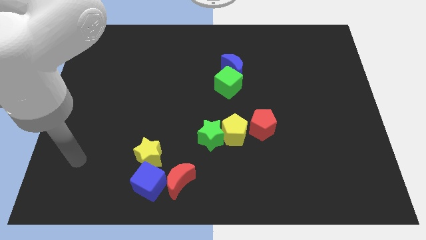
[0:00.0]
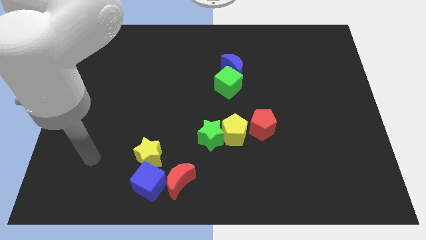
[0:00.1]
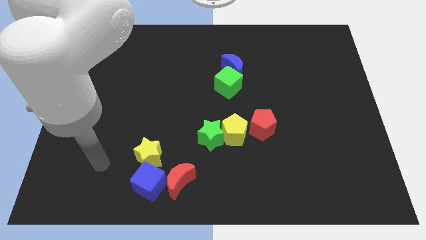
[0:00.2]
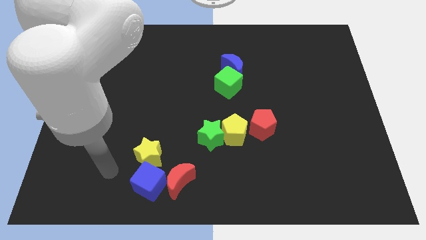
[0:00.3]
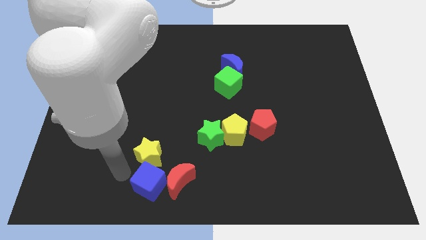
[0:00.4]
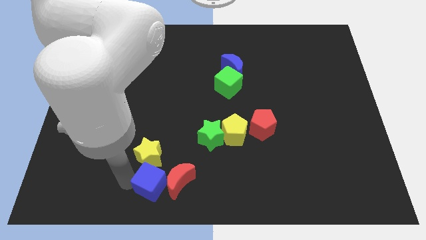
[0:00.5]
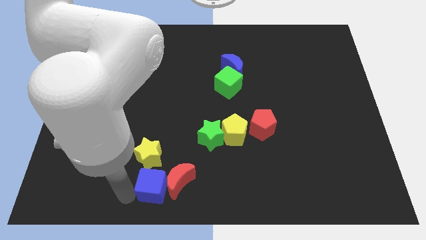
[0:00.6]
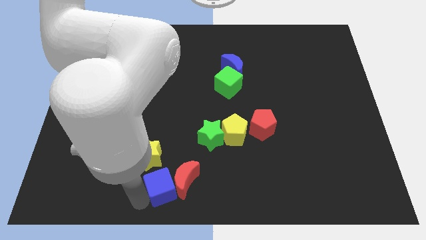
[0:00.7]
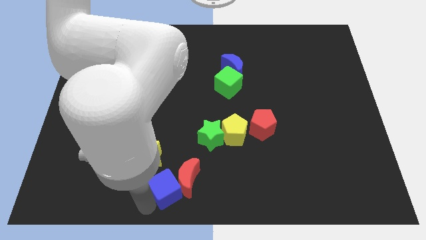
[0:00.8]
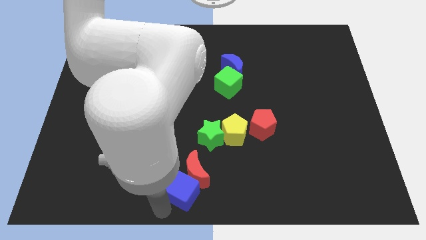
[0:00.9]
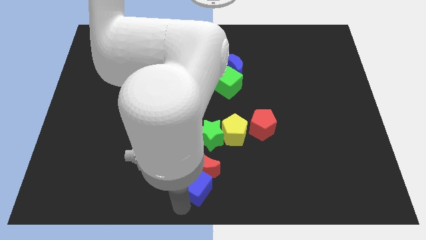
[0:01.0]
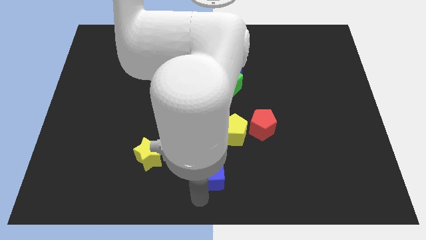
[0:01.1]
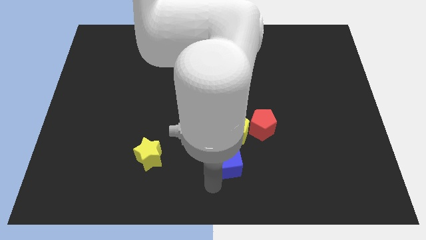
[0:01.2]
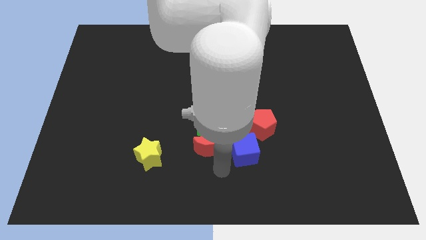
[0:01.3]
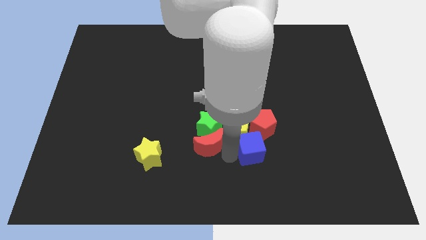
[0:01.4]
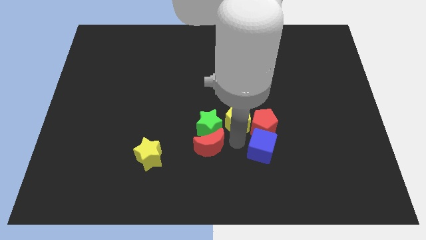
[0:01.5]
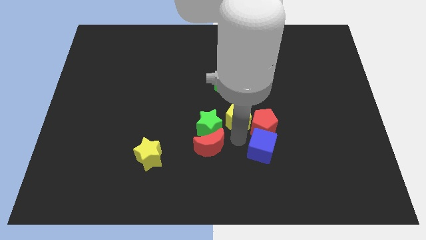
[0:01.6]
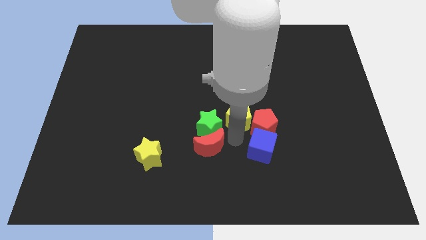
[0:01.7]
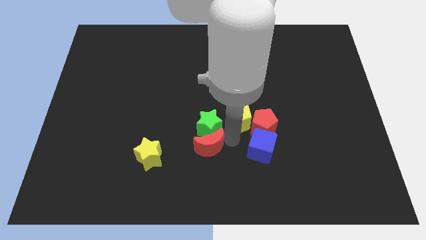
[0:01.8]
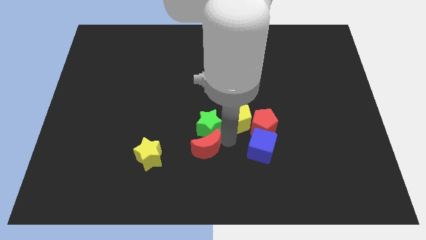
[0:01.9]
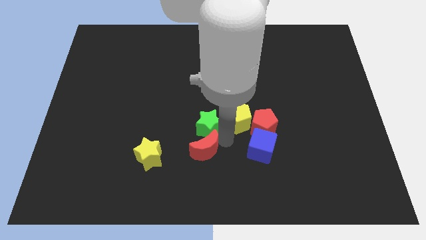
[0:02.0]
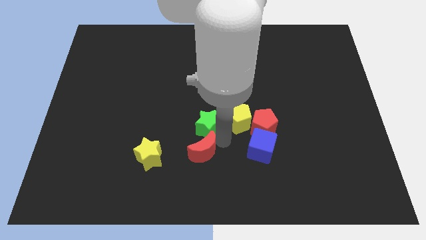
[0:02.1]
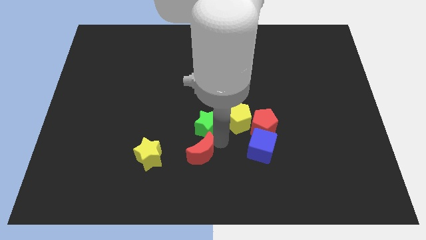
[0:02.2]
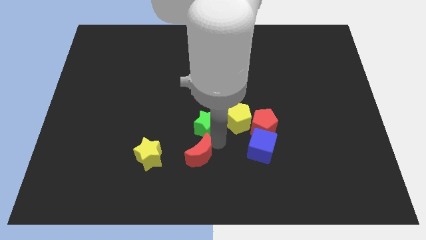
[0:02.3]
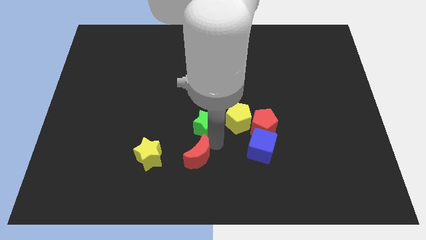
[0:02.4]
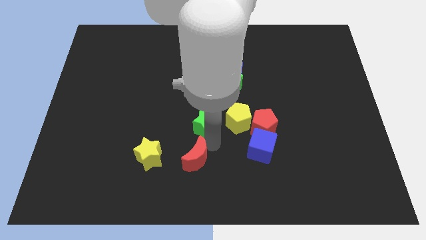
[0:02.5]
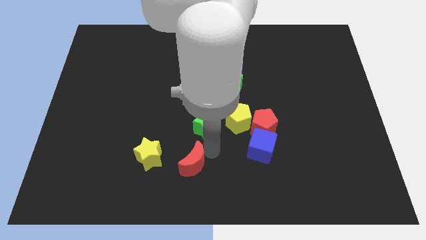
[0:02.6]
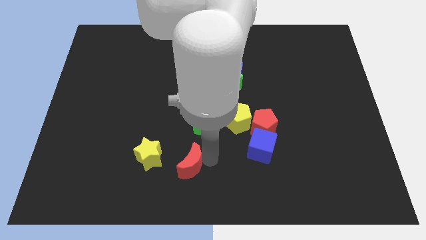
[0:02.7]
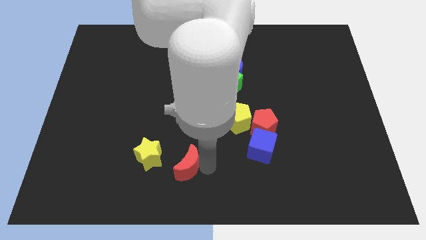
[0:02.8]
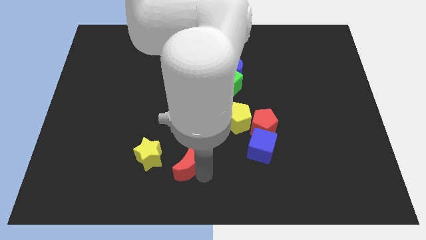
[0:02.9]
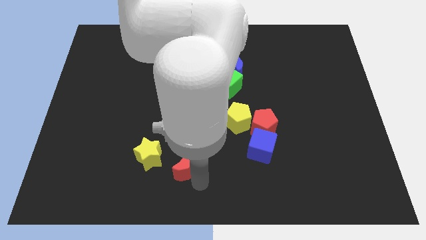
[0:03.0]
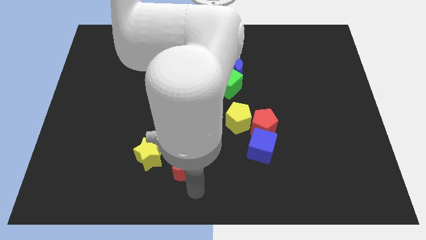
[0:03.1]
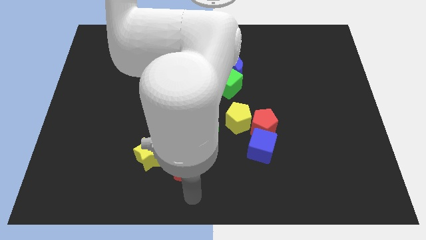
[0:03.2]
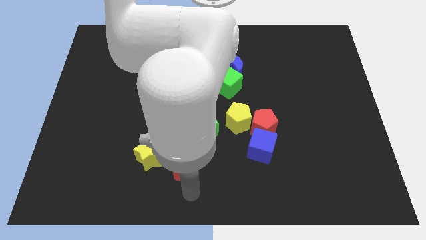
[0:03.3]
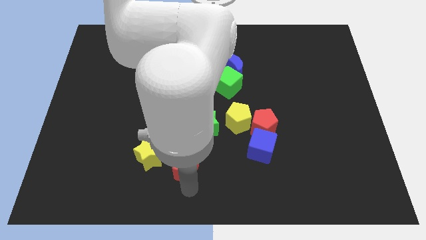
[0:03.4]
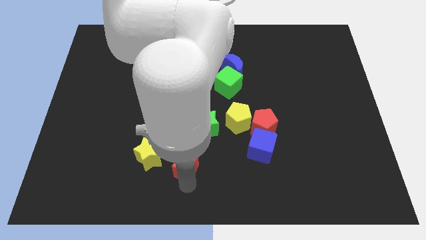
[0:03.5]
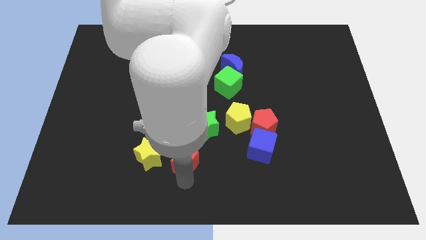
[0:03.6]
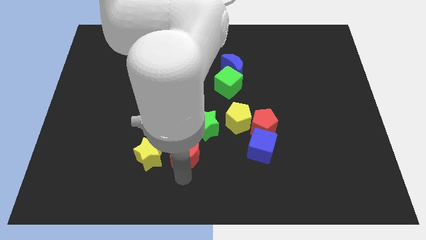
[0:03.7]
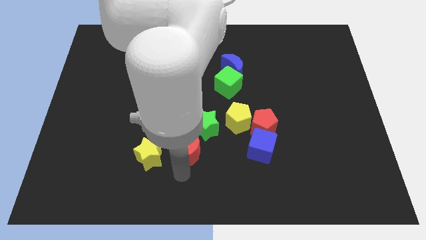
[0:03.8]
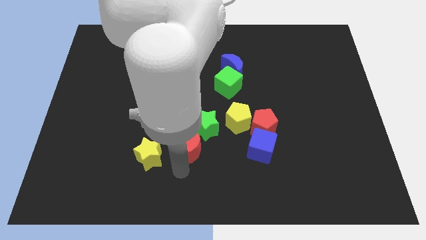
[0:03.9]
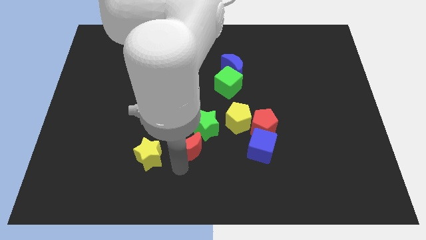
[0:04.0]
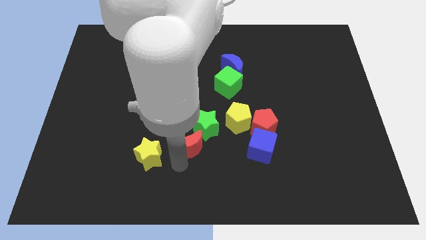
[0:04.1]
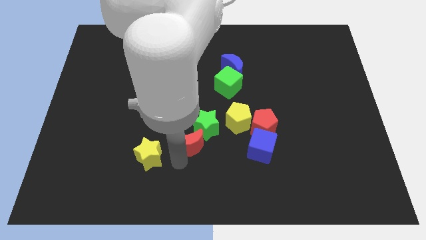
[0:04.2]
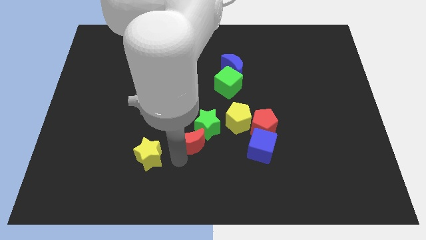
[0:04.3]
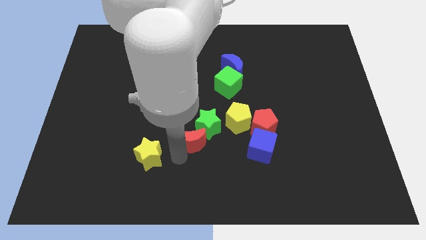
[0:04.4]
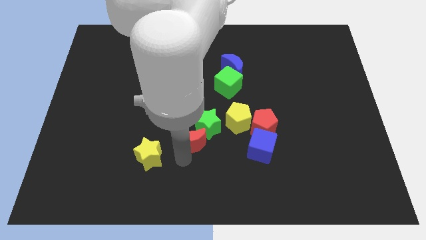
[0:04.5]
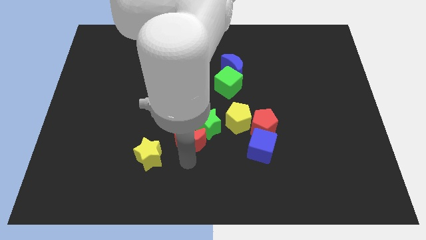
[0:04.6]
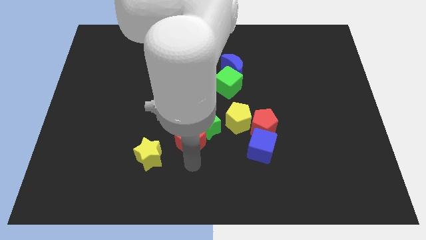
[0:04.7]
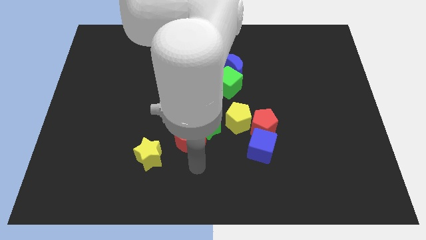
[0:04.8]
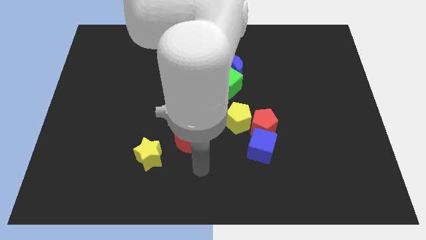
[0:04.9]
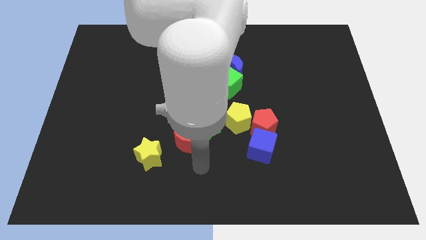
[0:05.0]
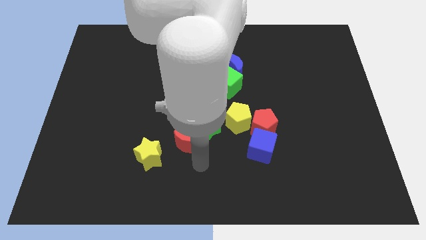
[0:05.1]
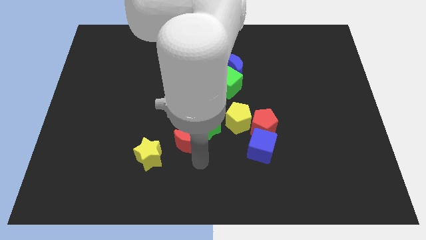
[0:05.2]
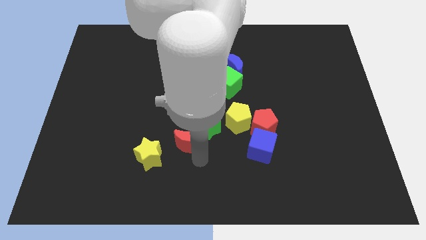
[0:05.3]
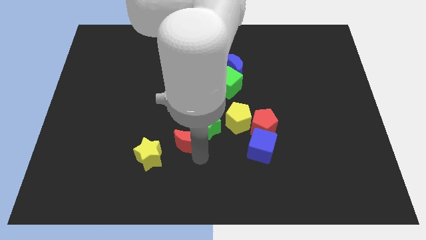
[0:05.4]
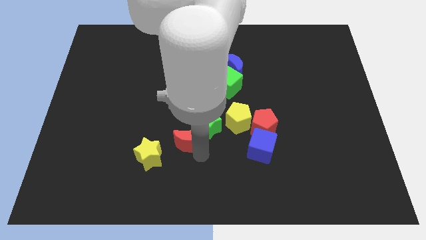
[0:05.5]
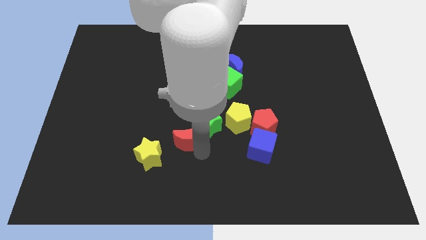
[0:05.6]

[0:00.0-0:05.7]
push the red moon to the center
